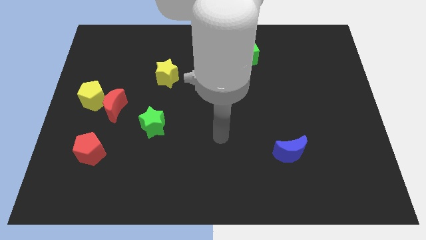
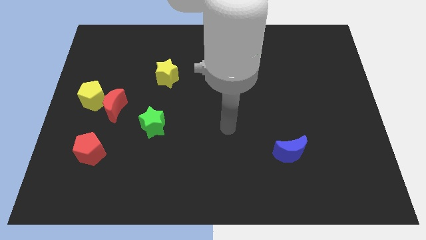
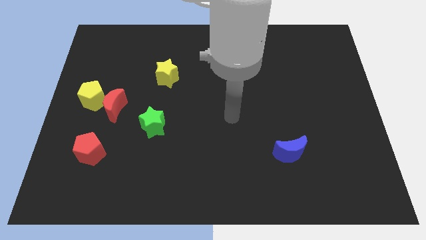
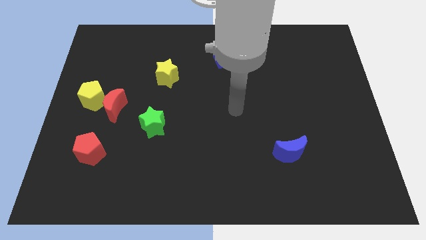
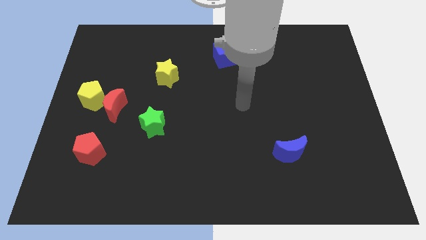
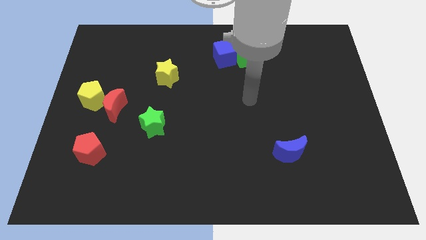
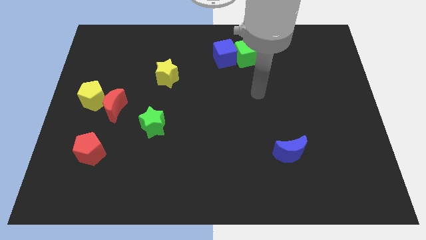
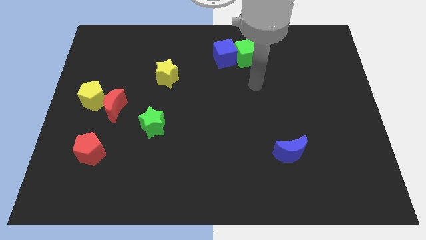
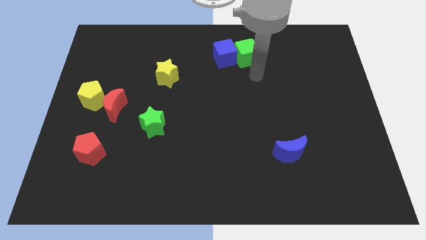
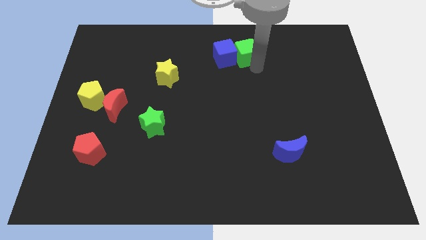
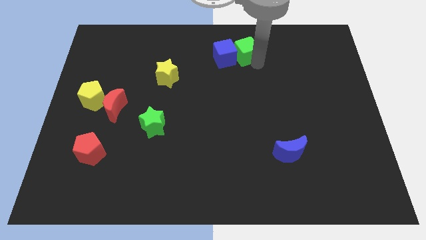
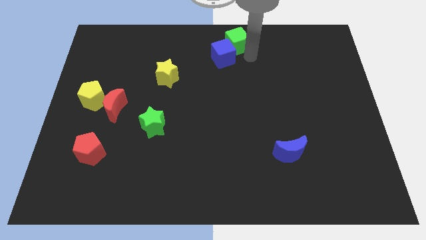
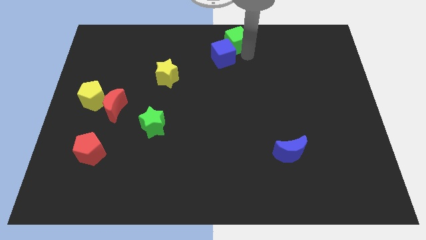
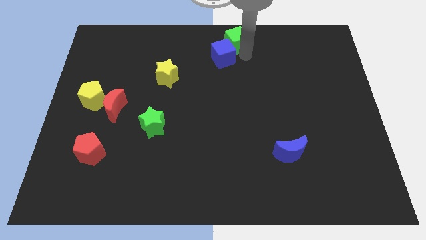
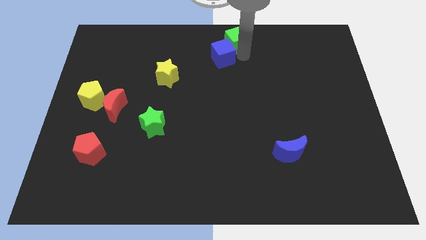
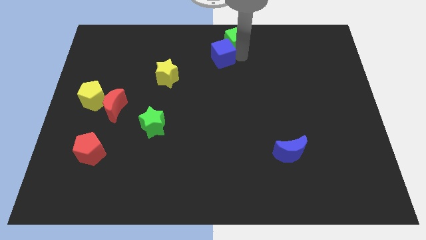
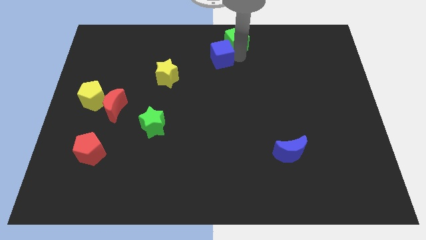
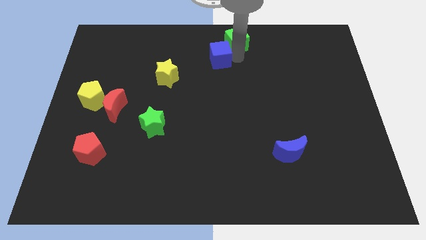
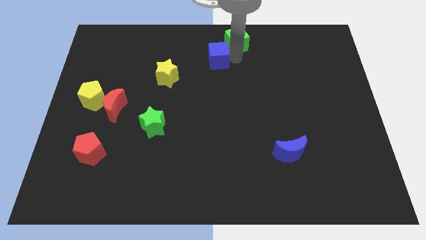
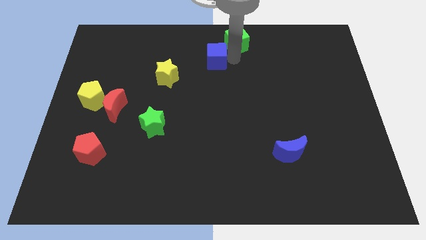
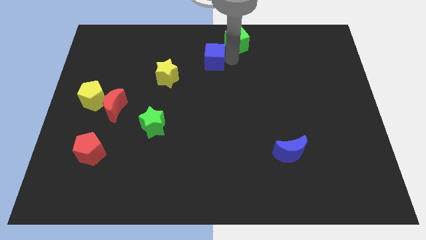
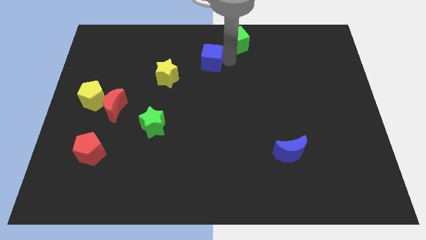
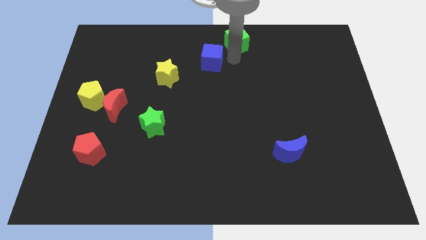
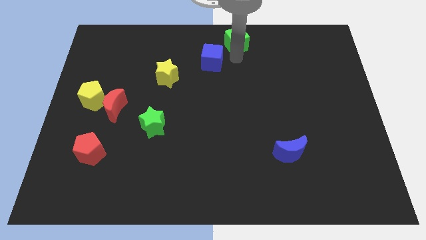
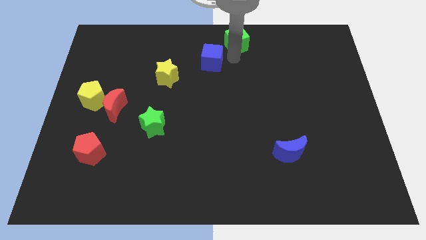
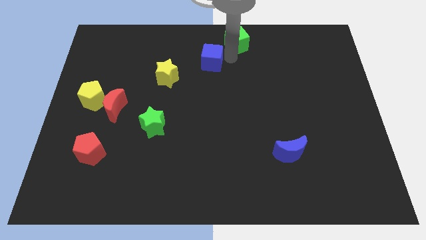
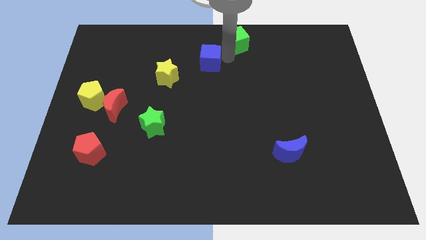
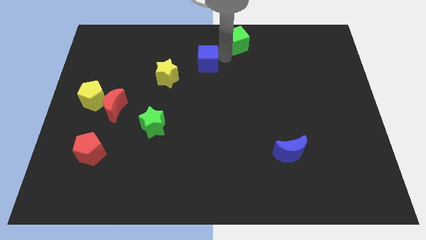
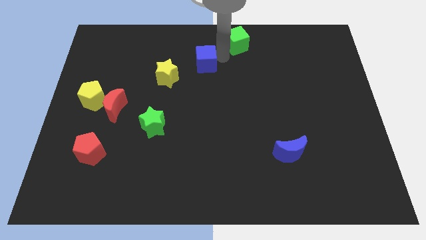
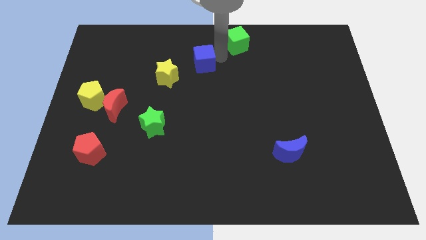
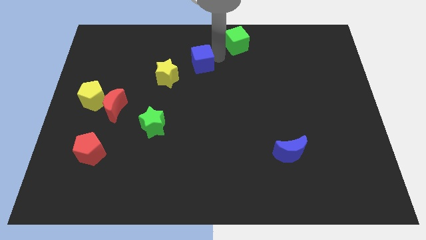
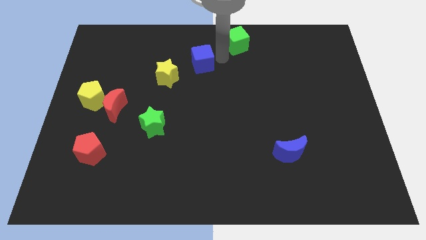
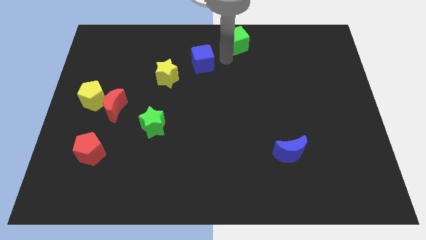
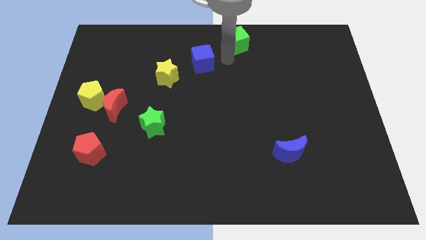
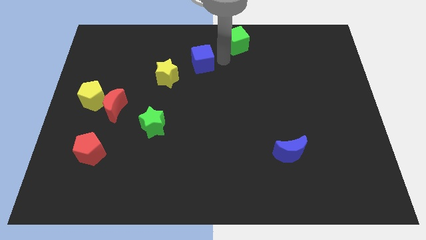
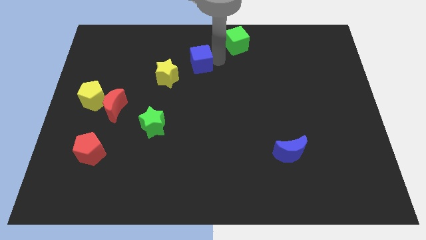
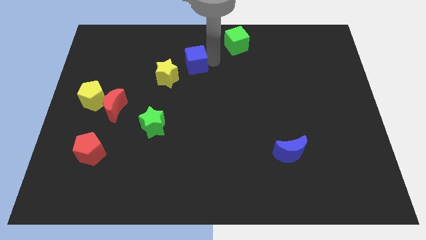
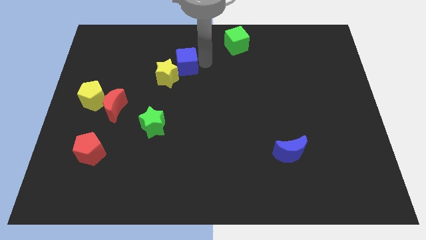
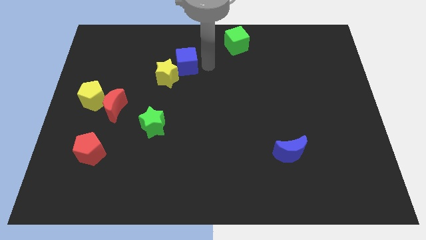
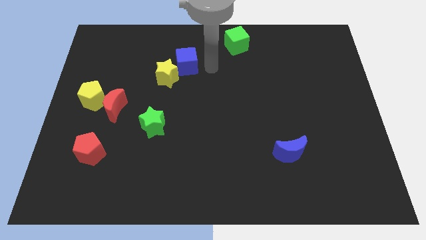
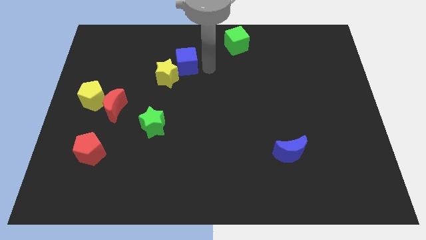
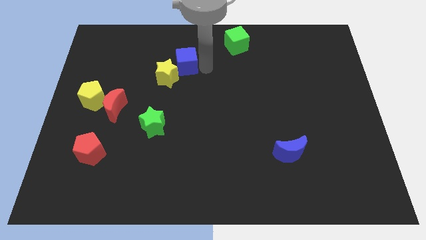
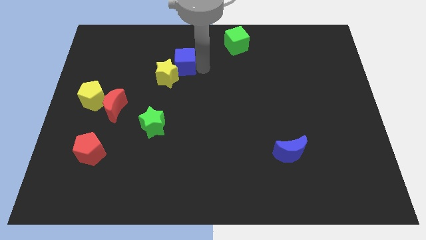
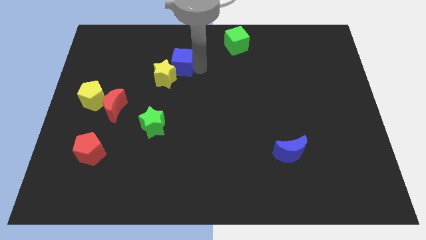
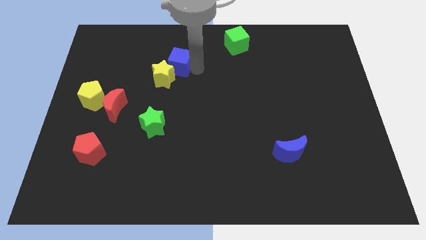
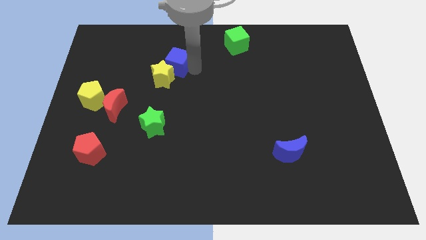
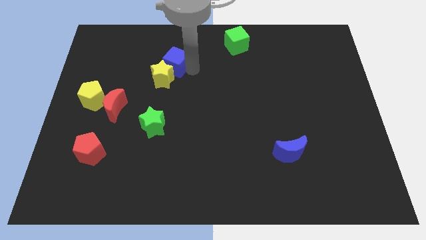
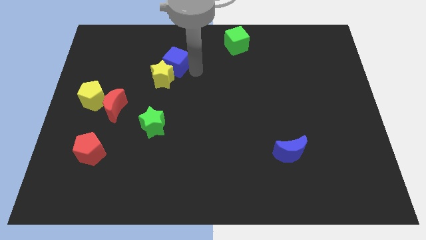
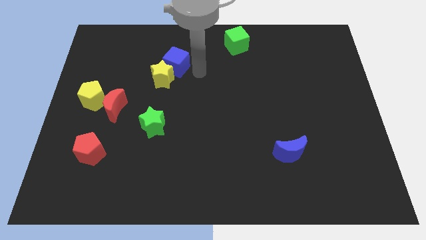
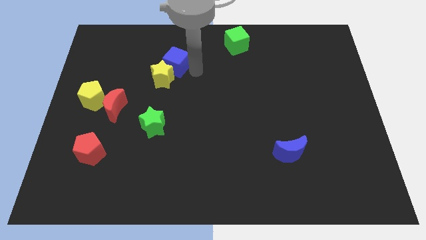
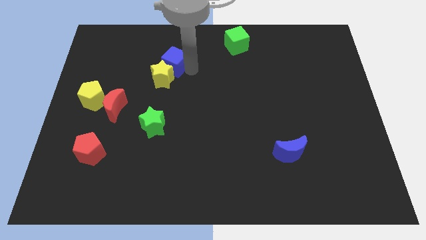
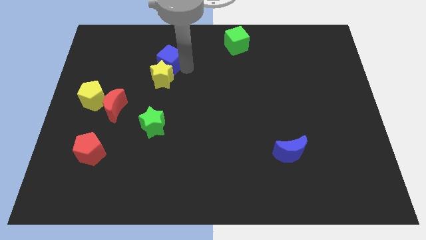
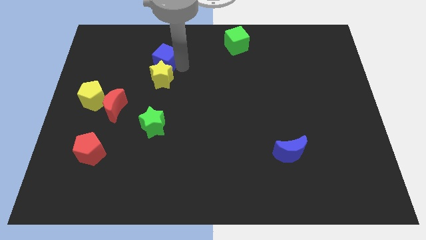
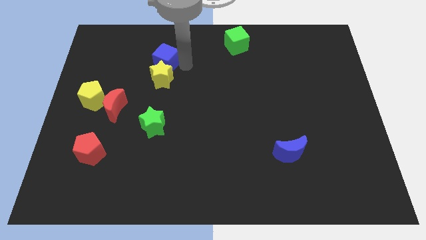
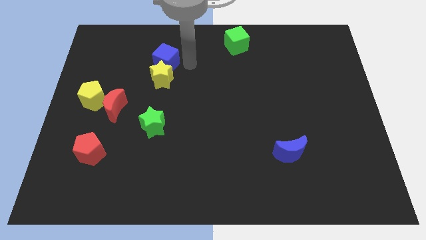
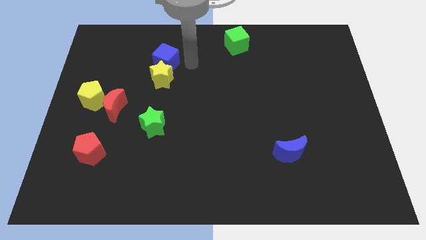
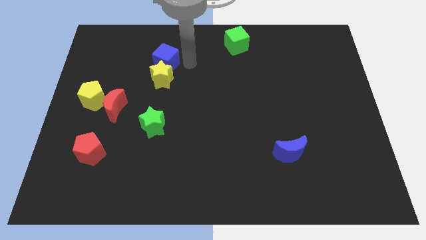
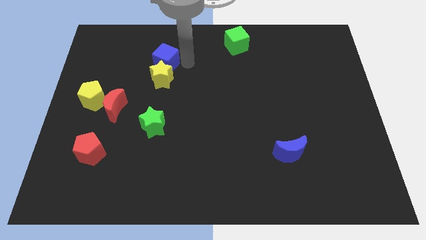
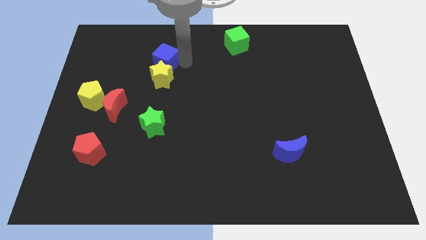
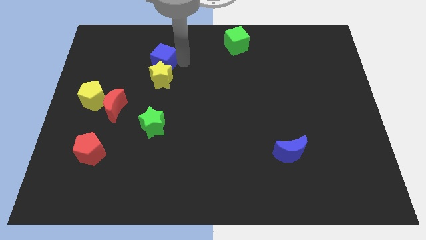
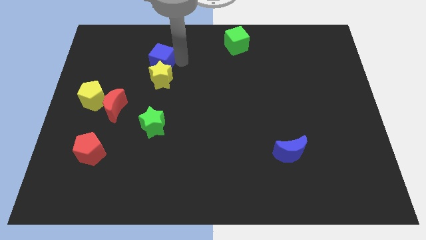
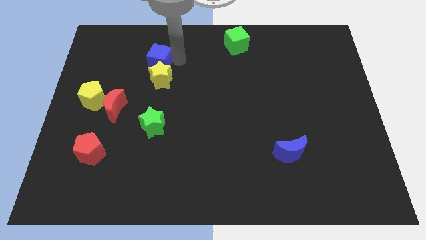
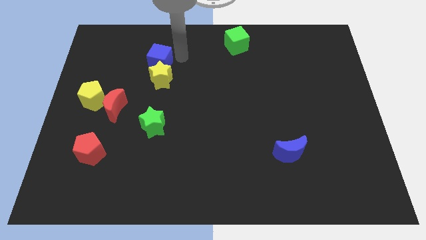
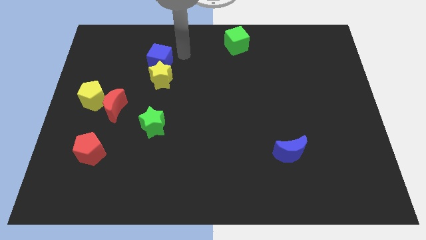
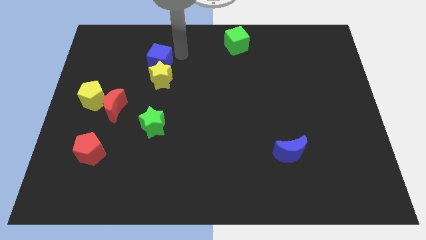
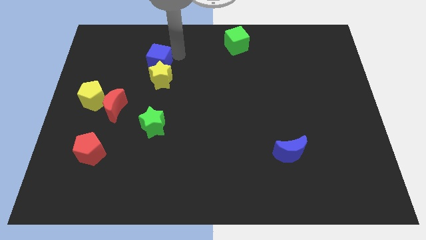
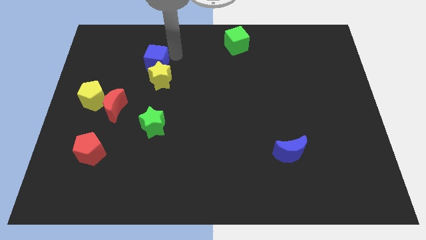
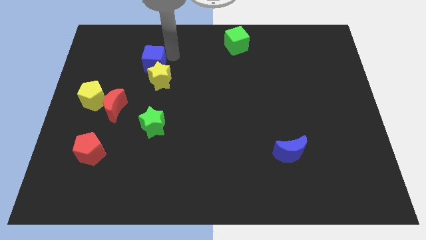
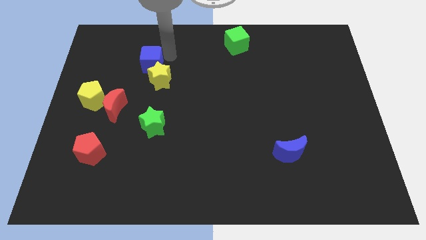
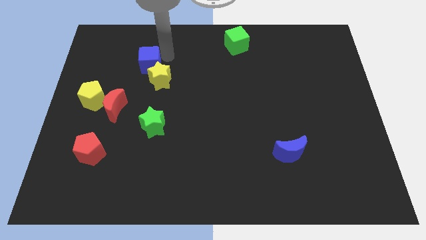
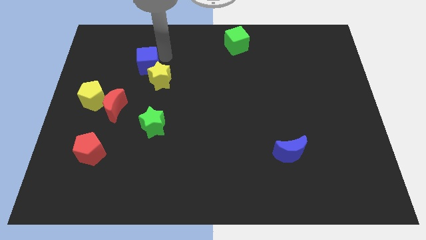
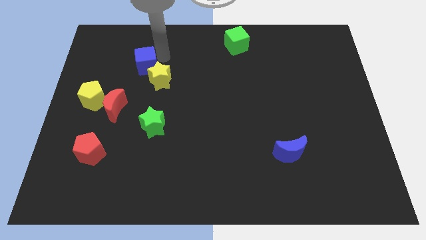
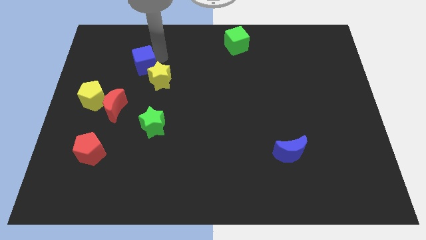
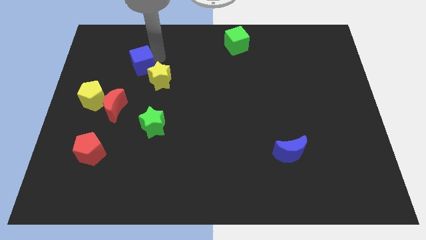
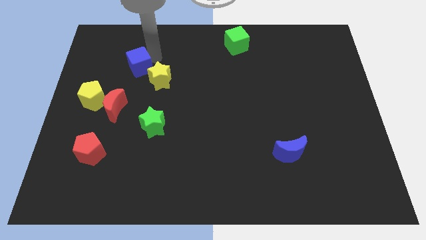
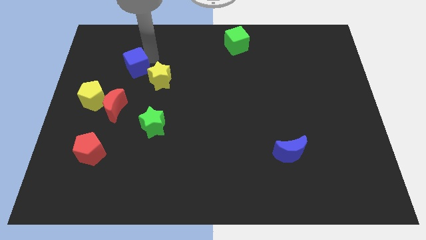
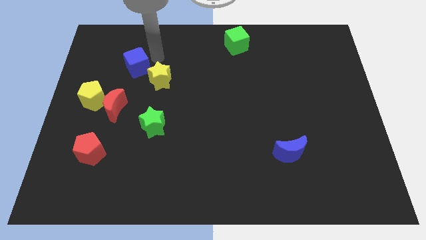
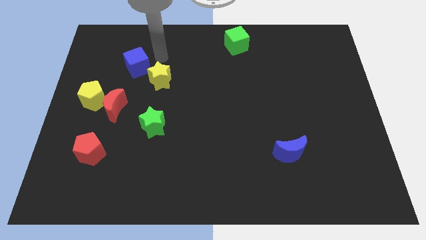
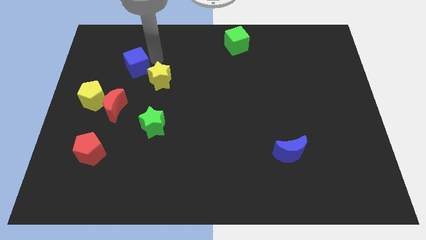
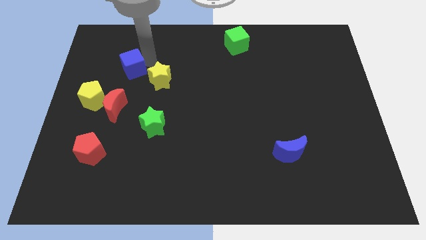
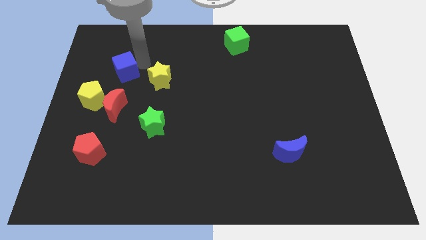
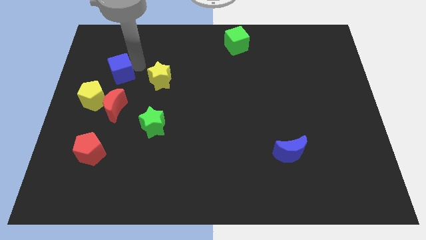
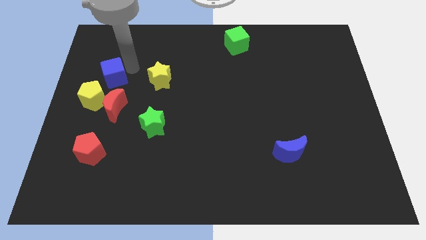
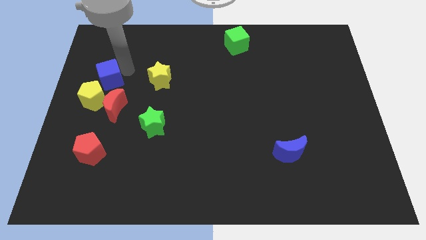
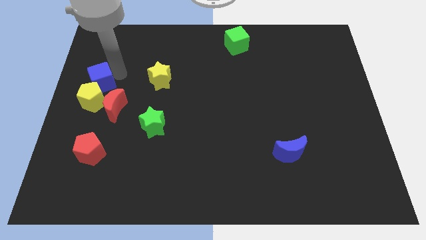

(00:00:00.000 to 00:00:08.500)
move the blue cube to the left side of the board
